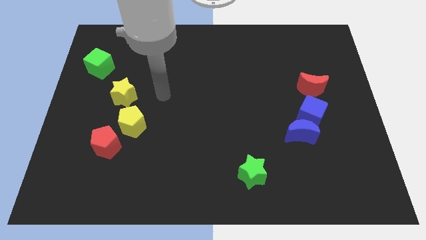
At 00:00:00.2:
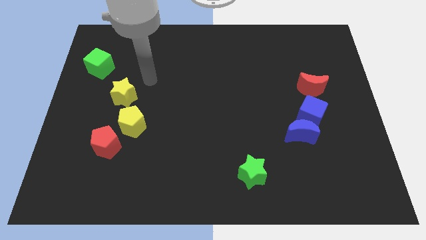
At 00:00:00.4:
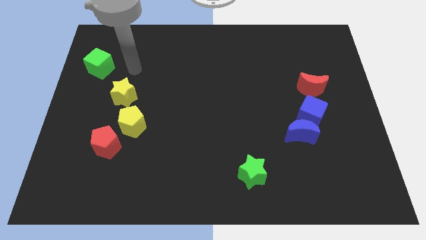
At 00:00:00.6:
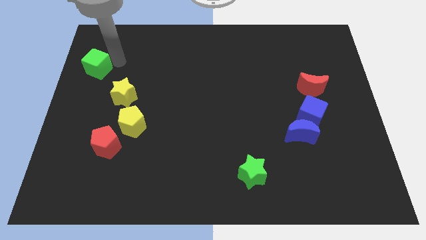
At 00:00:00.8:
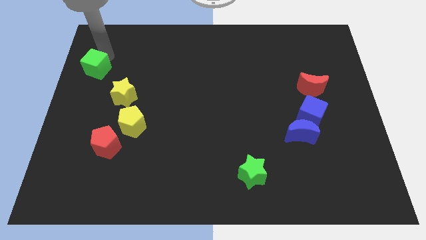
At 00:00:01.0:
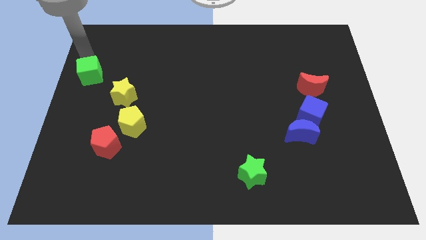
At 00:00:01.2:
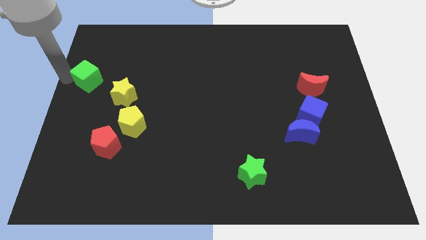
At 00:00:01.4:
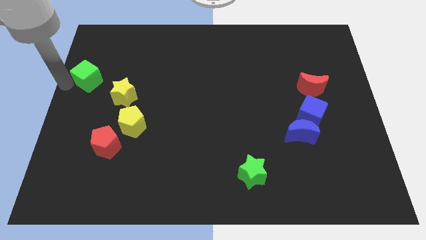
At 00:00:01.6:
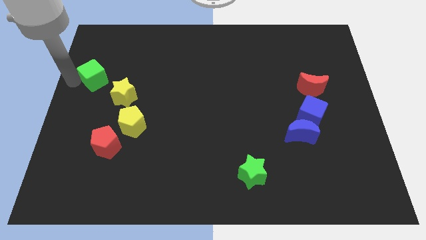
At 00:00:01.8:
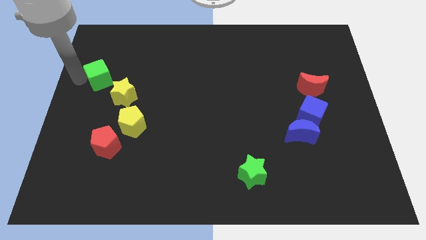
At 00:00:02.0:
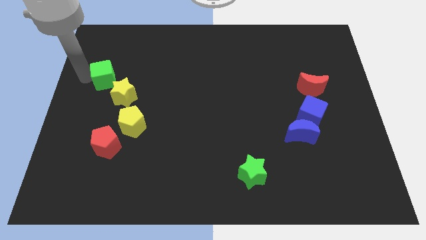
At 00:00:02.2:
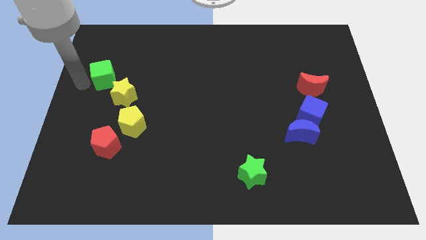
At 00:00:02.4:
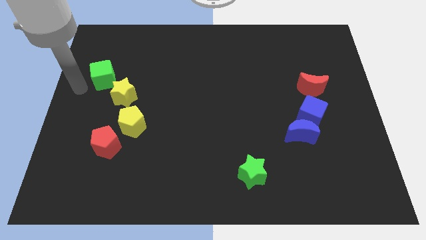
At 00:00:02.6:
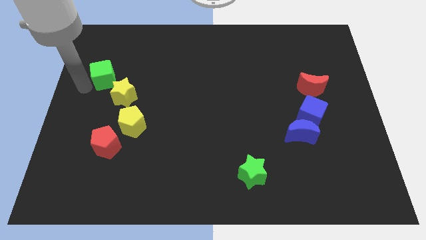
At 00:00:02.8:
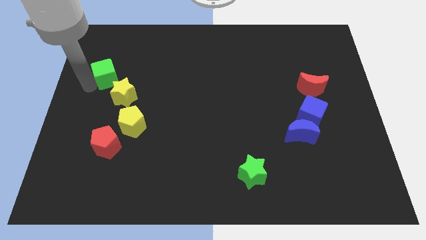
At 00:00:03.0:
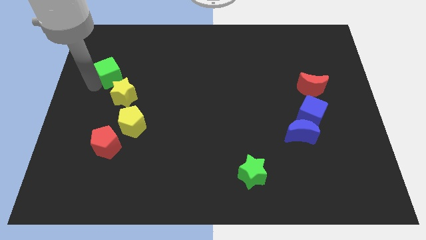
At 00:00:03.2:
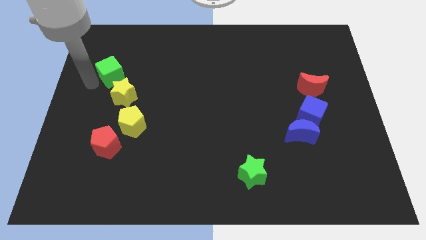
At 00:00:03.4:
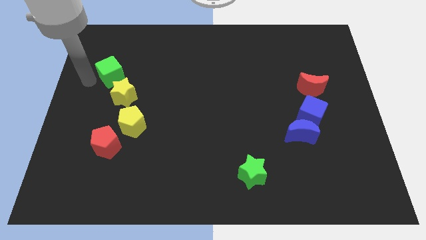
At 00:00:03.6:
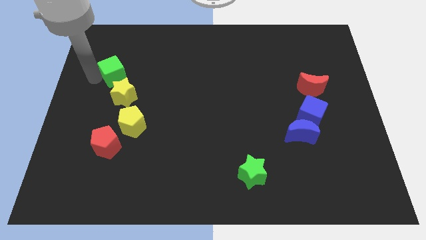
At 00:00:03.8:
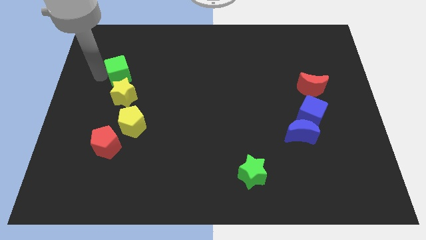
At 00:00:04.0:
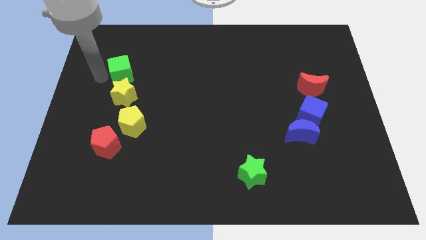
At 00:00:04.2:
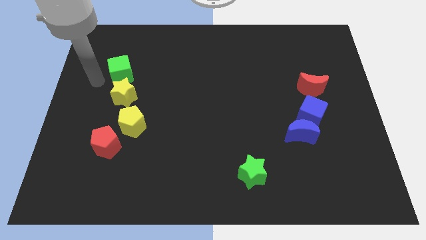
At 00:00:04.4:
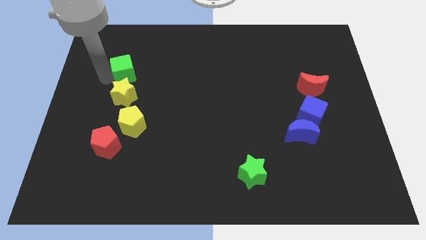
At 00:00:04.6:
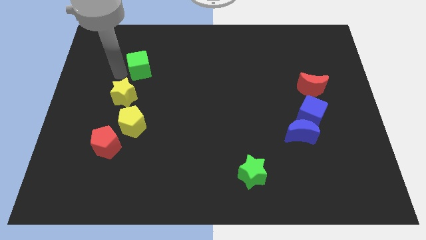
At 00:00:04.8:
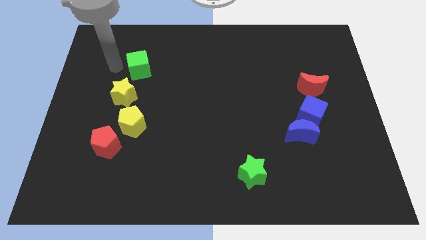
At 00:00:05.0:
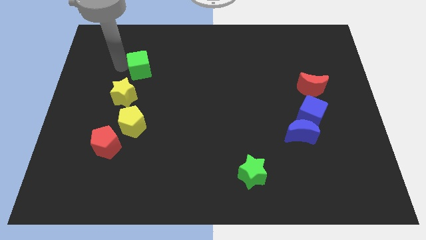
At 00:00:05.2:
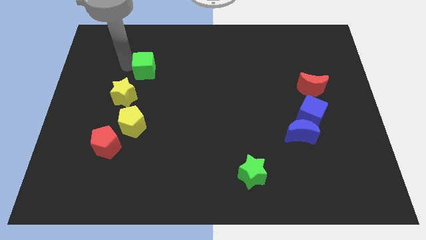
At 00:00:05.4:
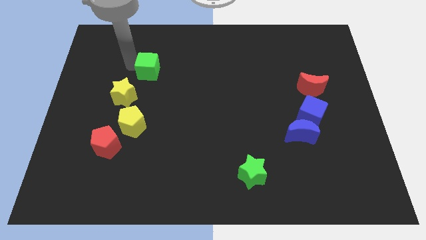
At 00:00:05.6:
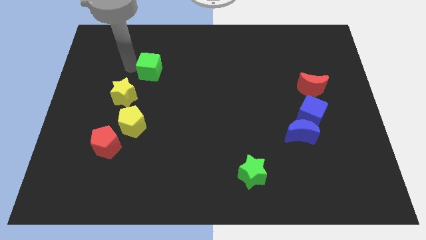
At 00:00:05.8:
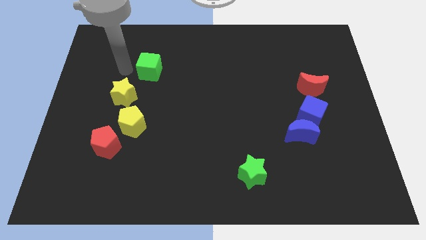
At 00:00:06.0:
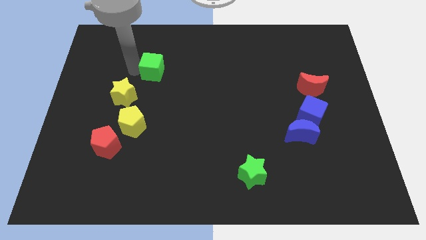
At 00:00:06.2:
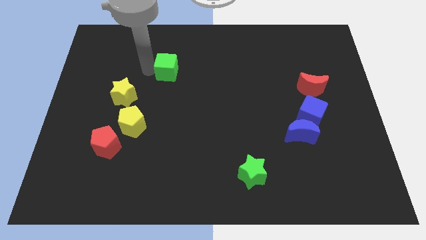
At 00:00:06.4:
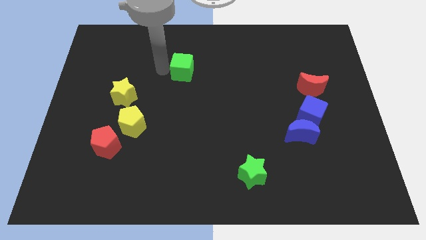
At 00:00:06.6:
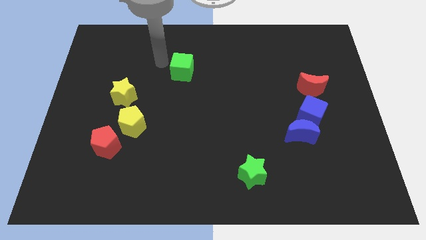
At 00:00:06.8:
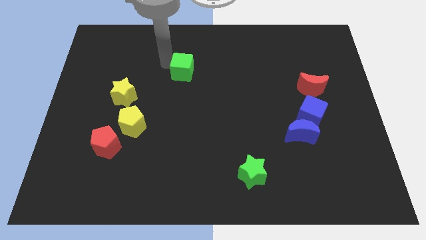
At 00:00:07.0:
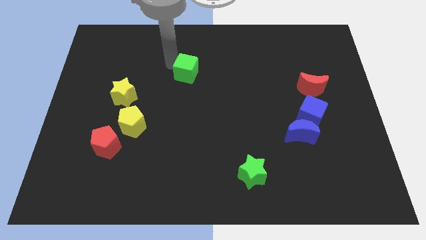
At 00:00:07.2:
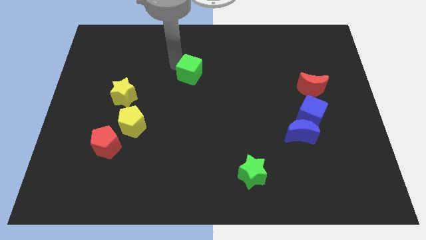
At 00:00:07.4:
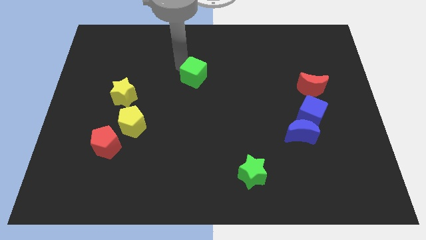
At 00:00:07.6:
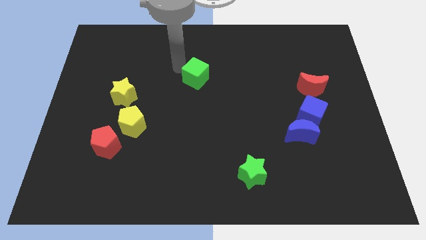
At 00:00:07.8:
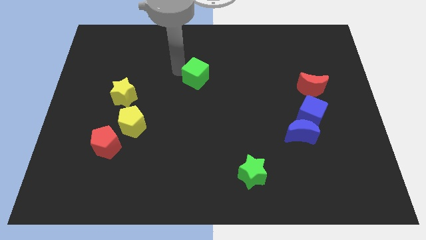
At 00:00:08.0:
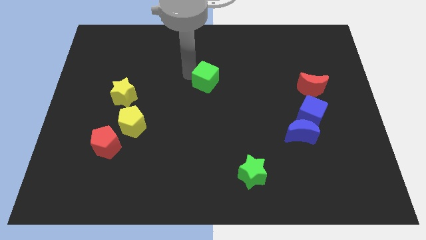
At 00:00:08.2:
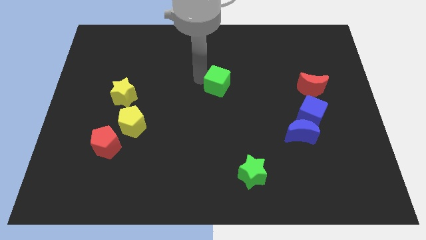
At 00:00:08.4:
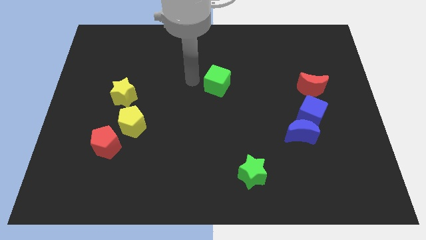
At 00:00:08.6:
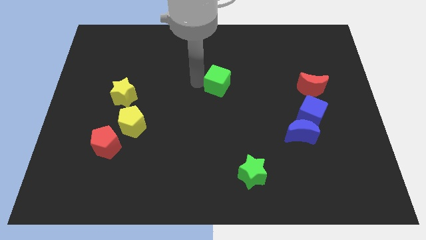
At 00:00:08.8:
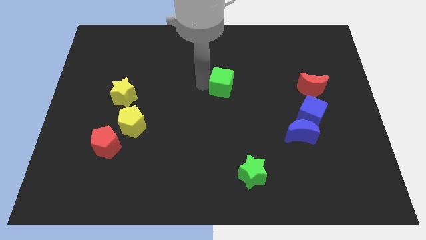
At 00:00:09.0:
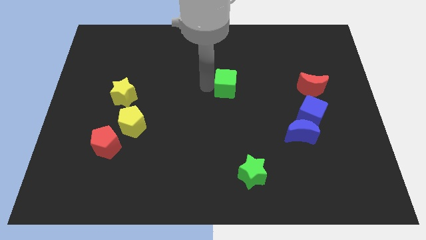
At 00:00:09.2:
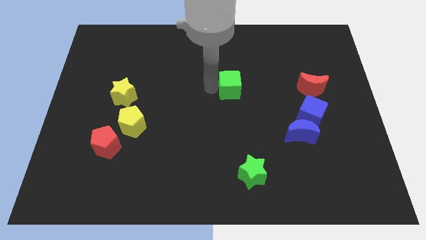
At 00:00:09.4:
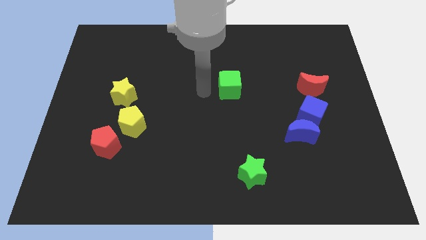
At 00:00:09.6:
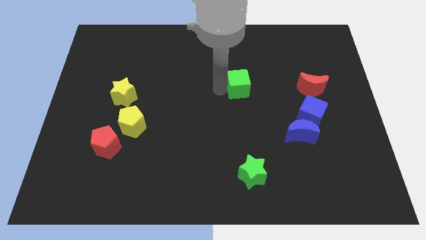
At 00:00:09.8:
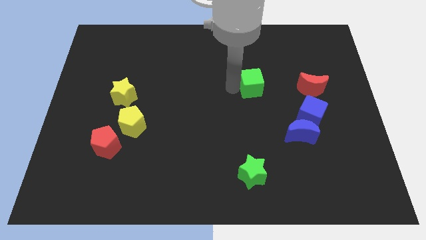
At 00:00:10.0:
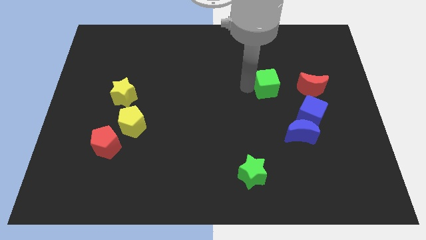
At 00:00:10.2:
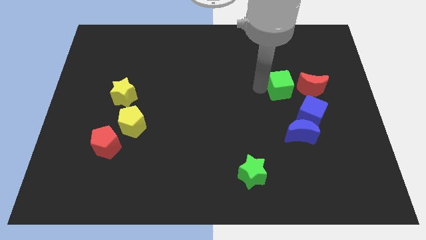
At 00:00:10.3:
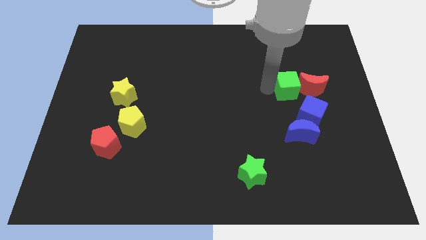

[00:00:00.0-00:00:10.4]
move the green cube towards the red moon

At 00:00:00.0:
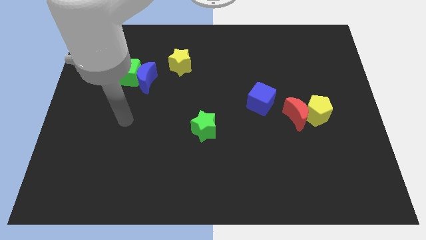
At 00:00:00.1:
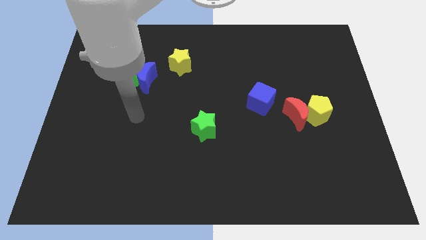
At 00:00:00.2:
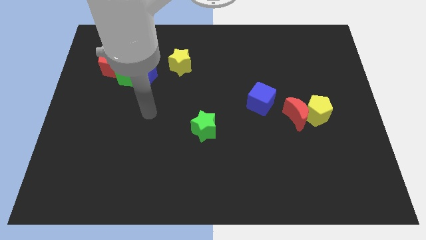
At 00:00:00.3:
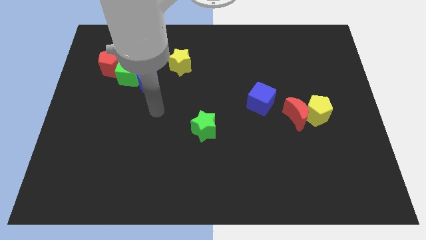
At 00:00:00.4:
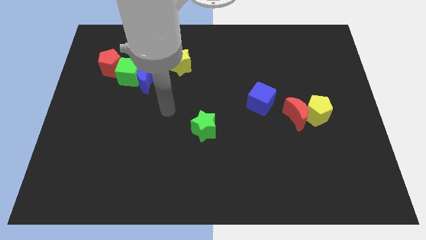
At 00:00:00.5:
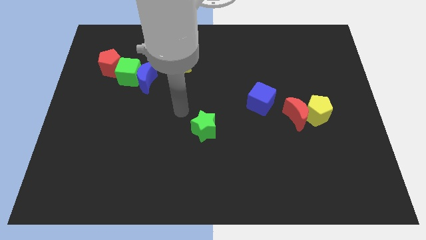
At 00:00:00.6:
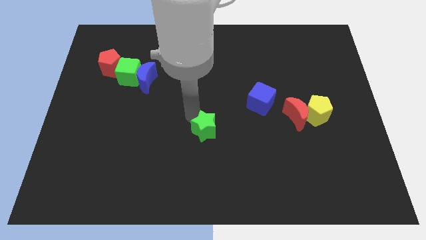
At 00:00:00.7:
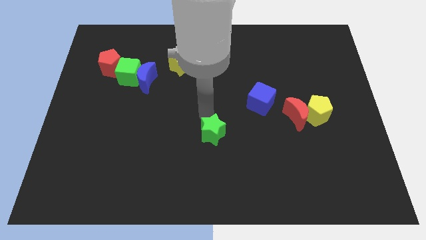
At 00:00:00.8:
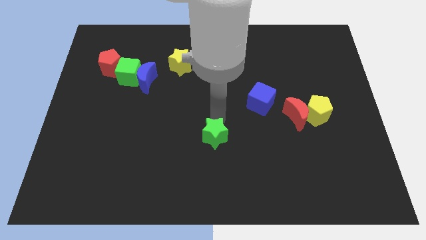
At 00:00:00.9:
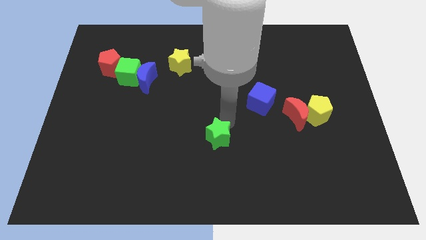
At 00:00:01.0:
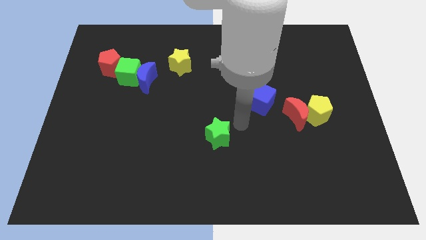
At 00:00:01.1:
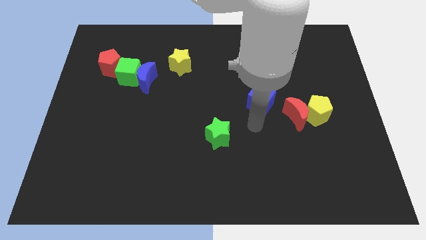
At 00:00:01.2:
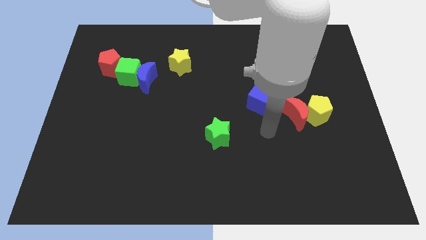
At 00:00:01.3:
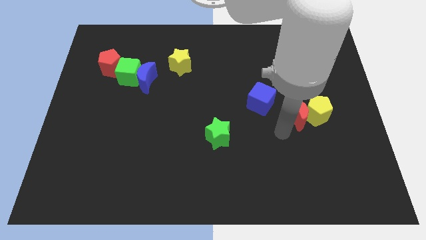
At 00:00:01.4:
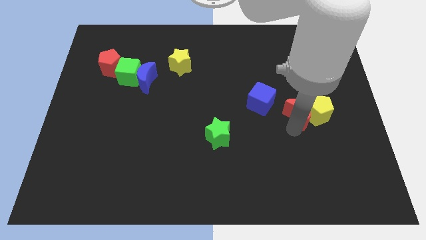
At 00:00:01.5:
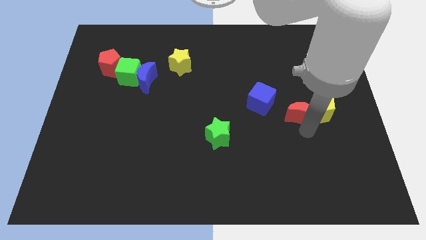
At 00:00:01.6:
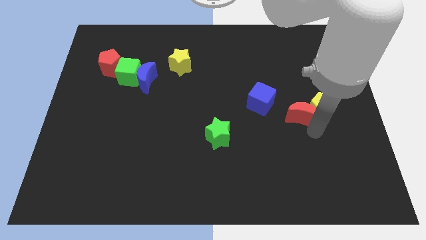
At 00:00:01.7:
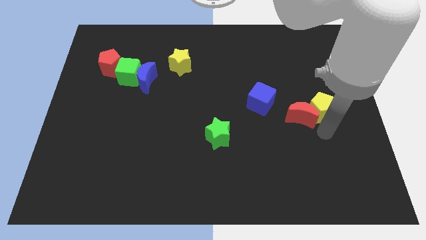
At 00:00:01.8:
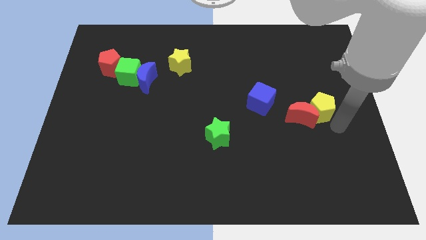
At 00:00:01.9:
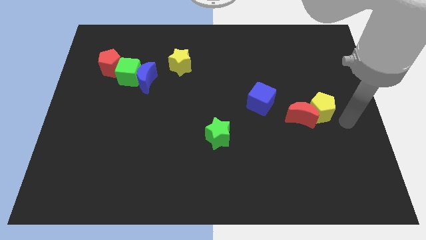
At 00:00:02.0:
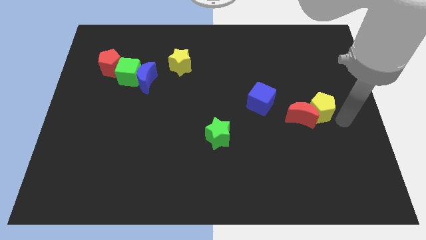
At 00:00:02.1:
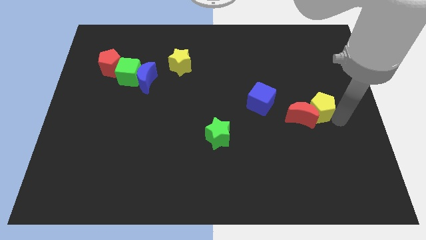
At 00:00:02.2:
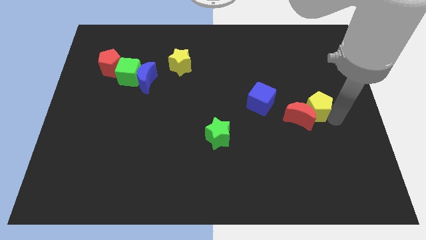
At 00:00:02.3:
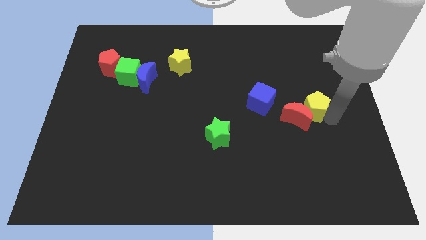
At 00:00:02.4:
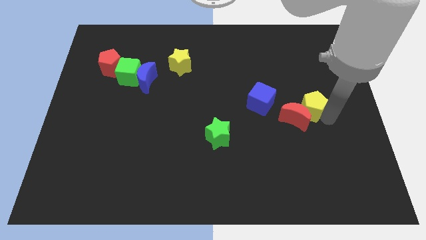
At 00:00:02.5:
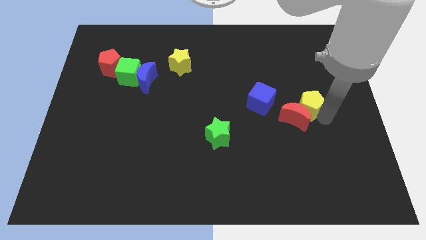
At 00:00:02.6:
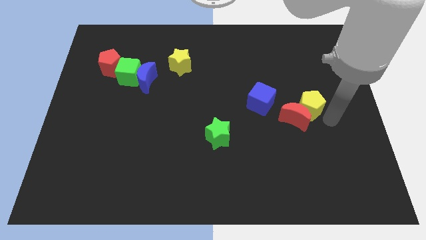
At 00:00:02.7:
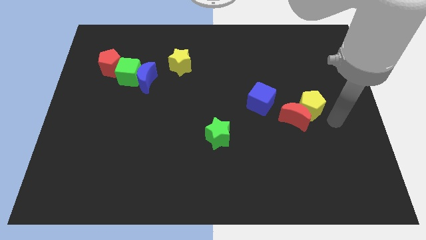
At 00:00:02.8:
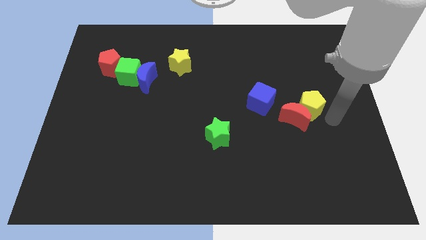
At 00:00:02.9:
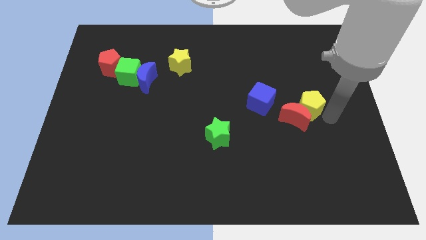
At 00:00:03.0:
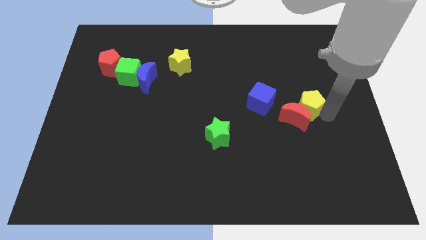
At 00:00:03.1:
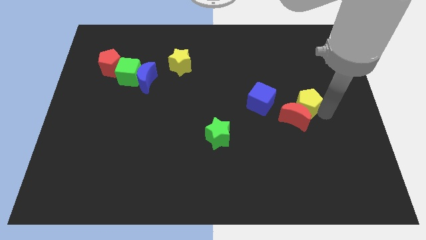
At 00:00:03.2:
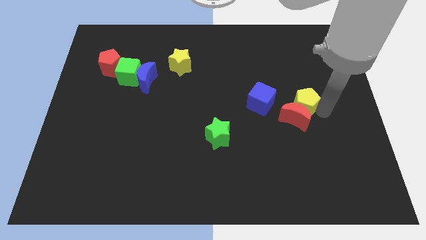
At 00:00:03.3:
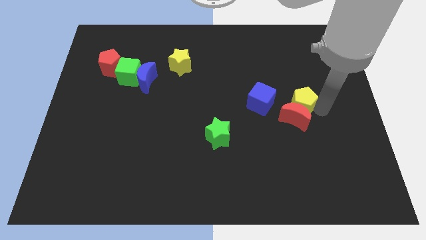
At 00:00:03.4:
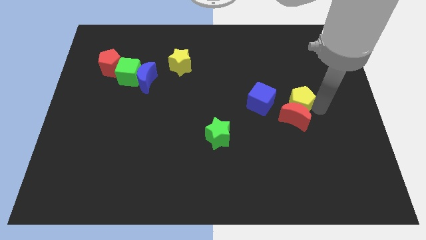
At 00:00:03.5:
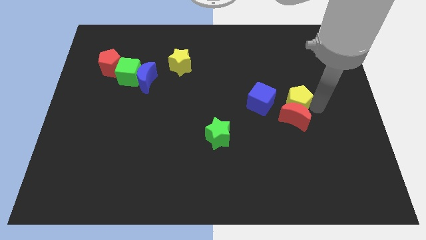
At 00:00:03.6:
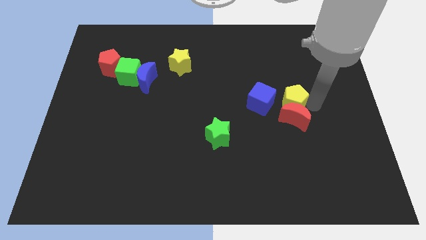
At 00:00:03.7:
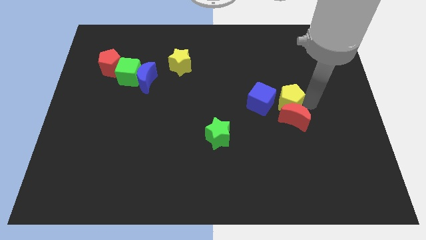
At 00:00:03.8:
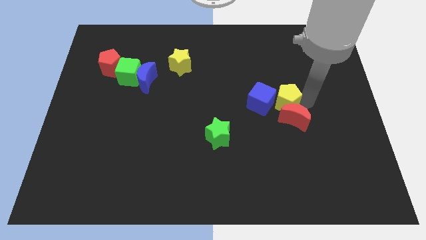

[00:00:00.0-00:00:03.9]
move the yellow pentagon towards the blue cube
